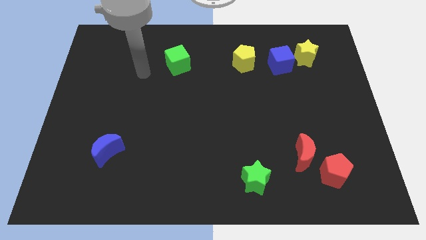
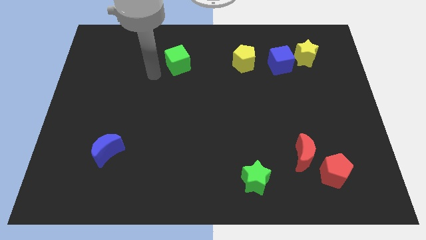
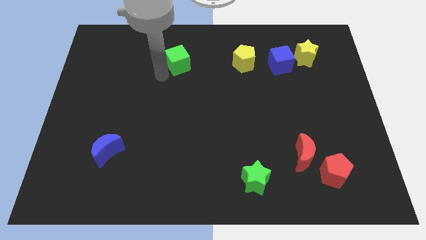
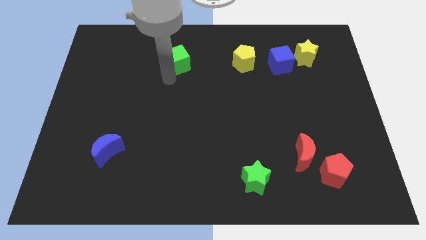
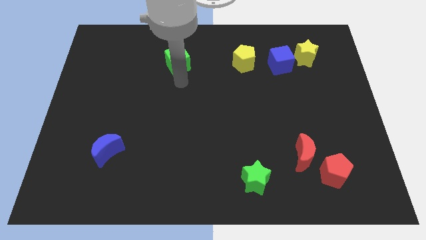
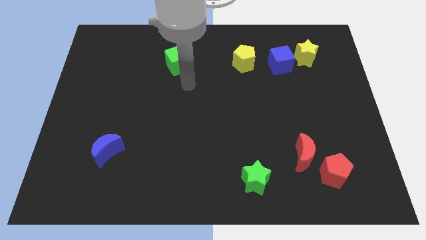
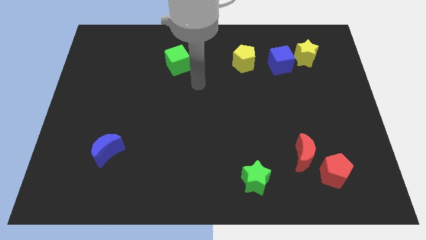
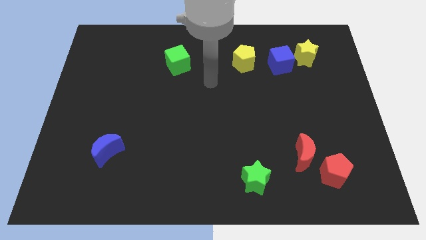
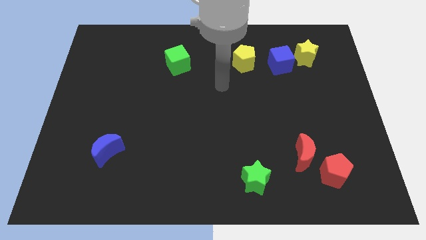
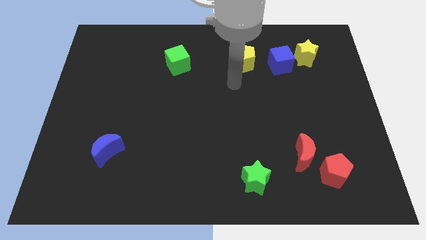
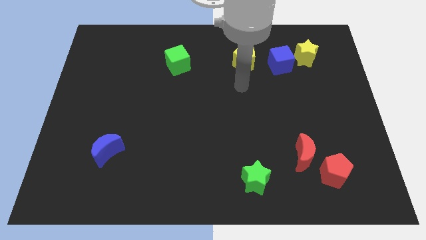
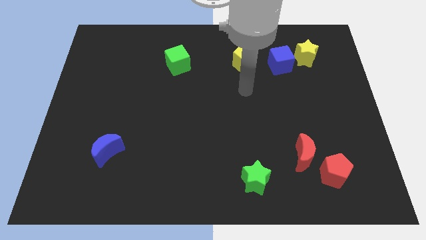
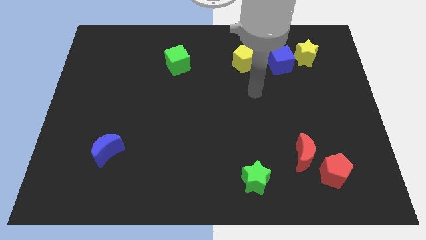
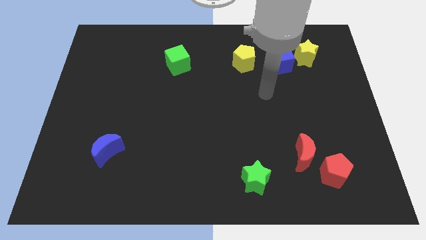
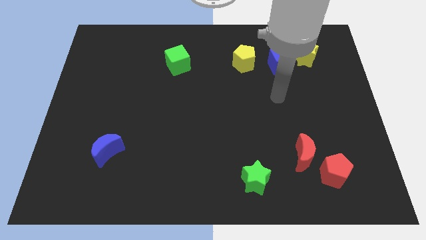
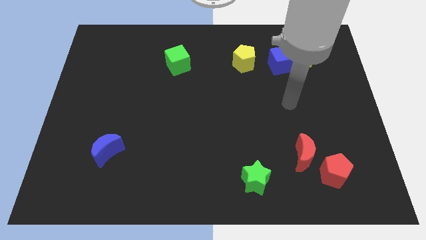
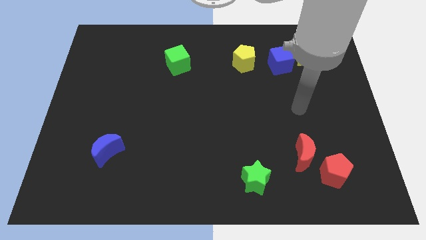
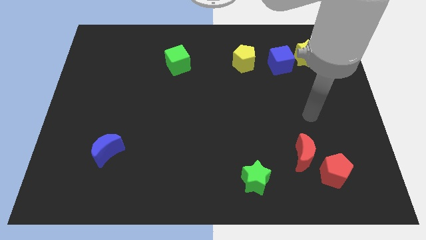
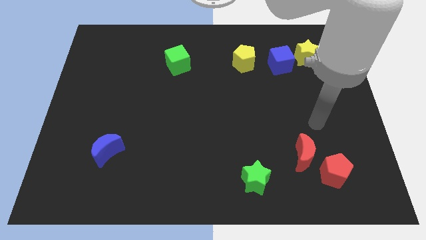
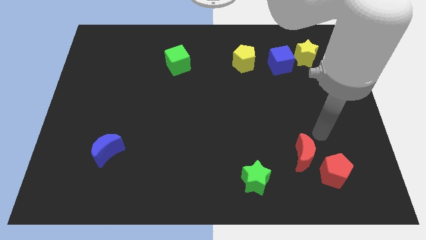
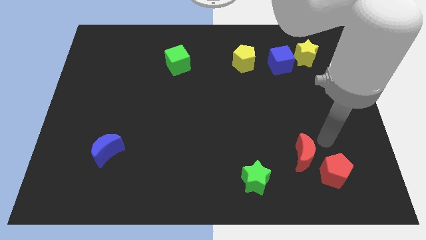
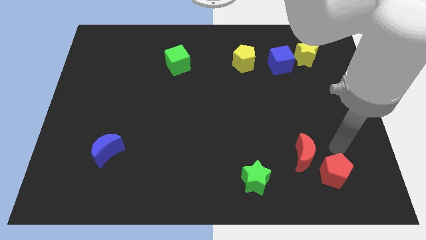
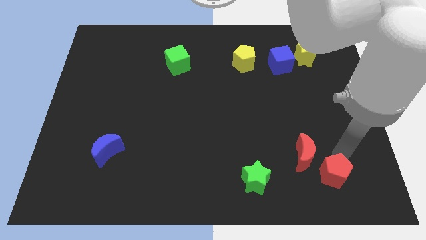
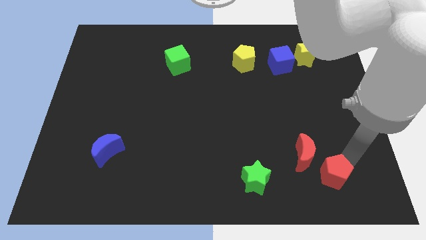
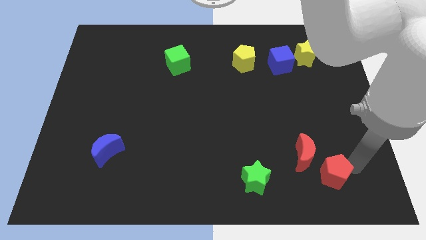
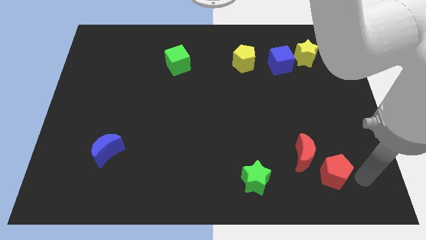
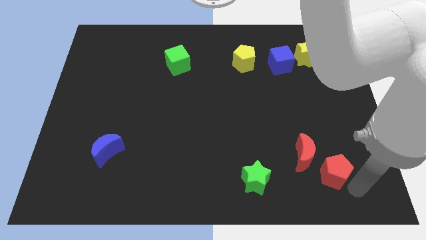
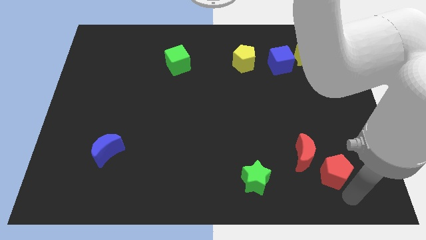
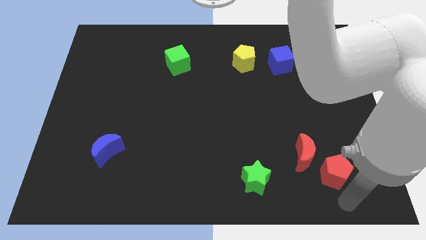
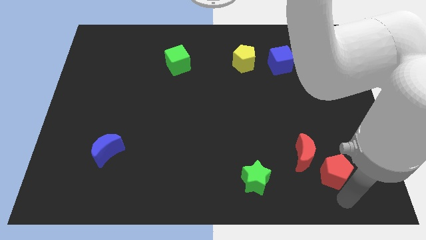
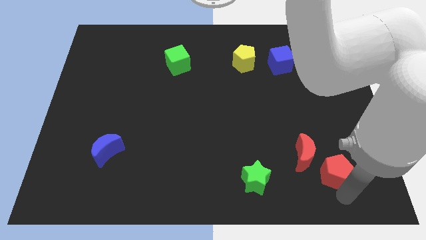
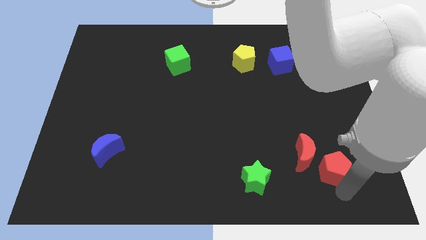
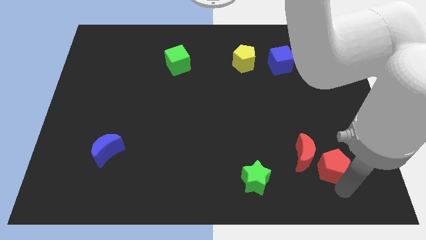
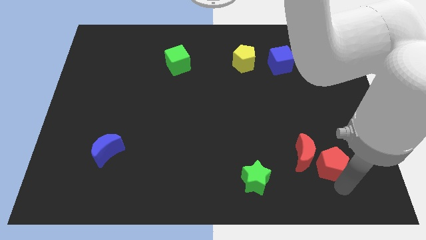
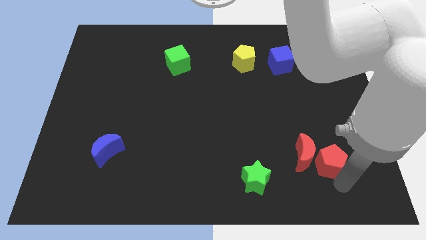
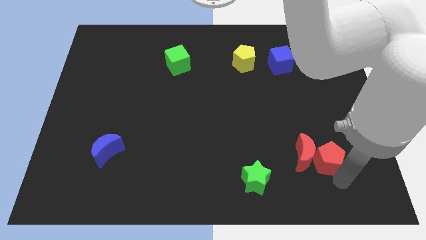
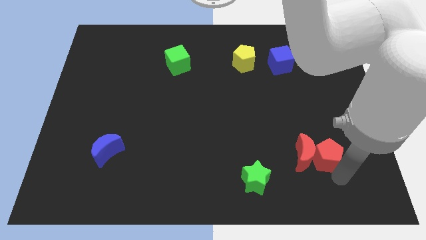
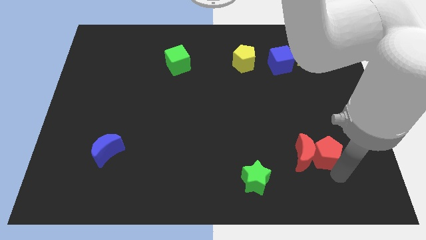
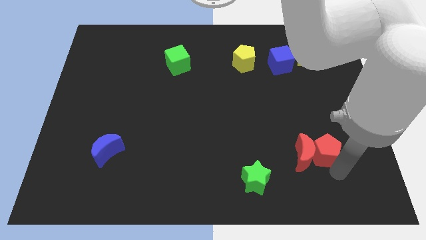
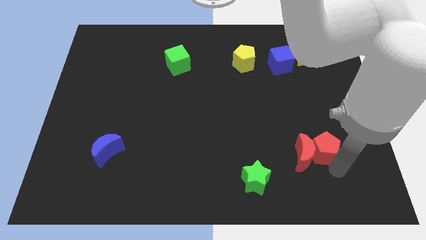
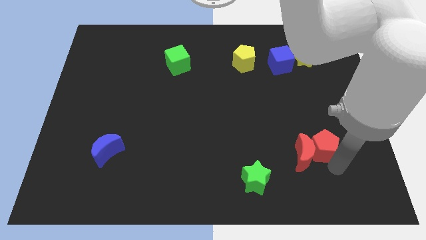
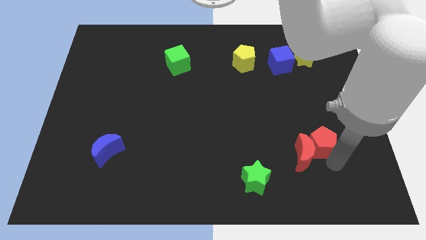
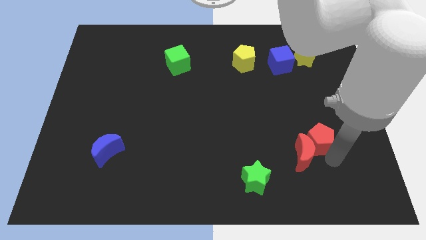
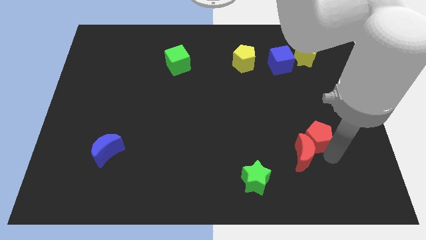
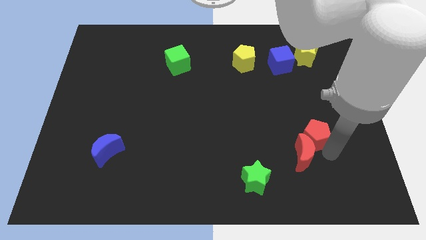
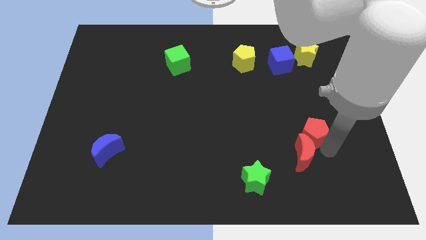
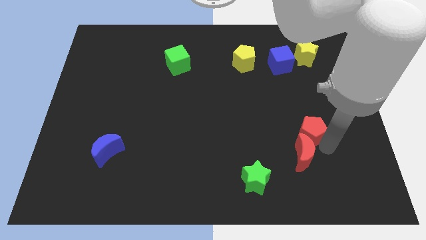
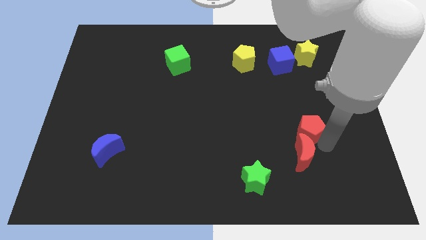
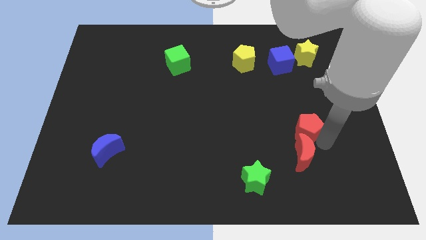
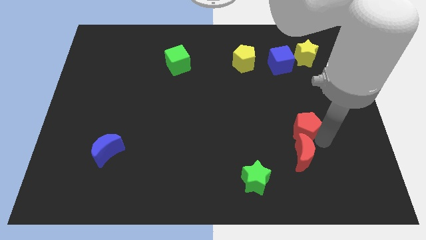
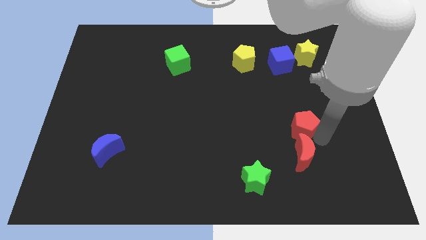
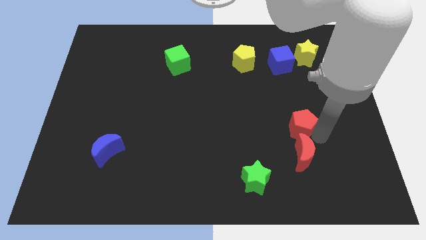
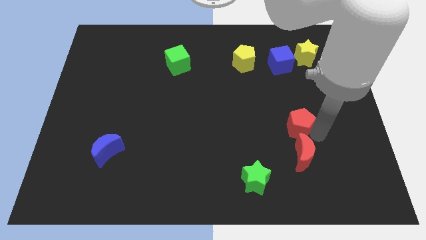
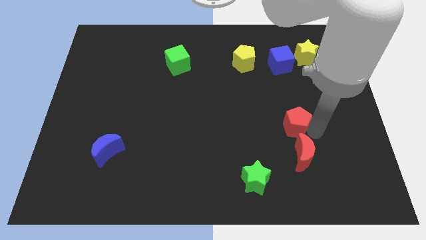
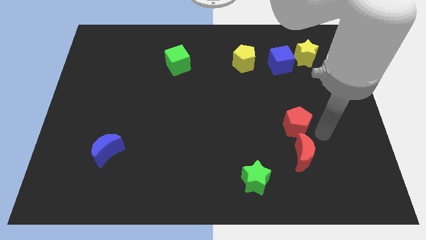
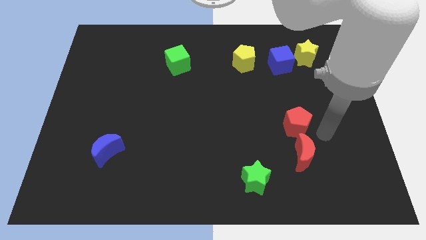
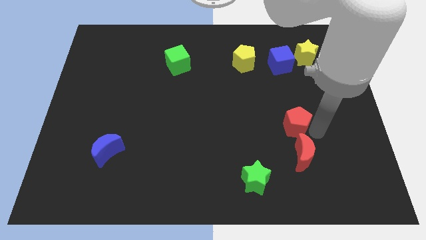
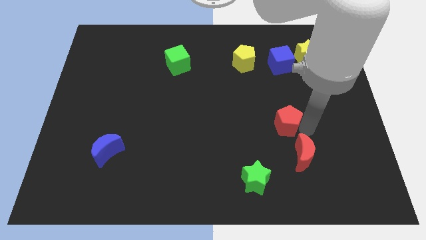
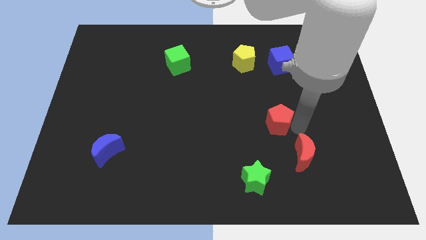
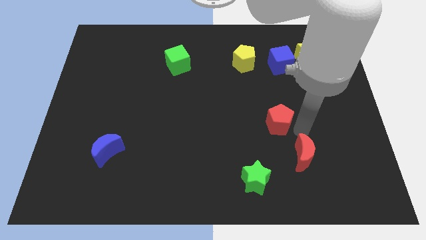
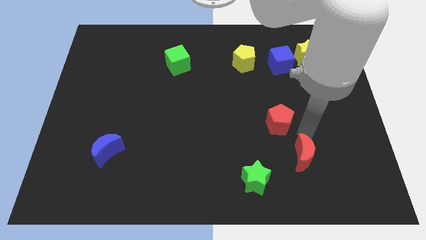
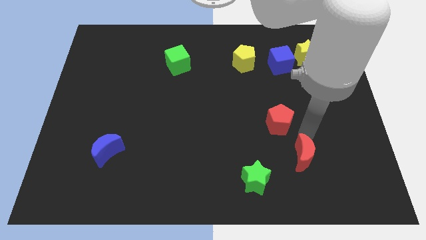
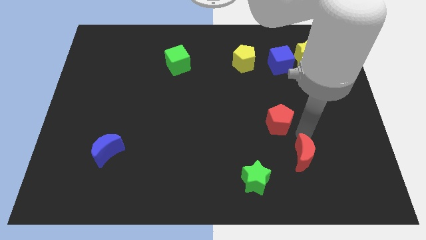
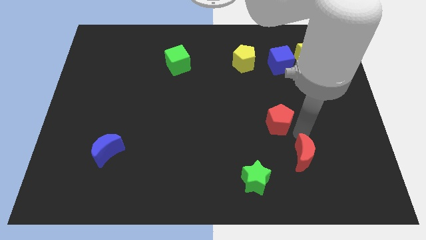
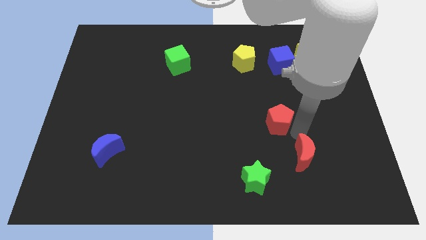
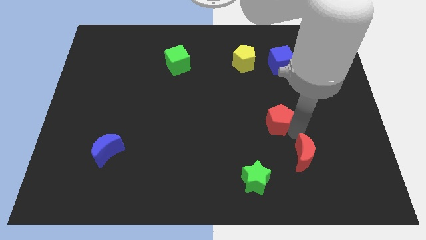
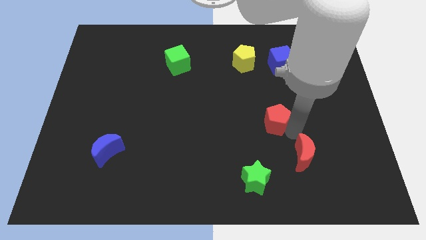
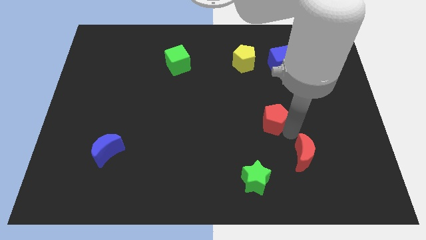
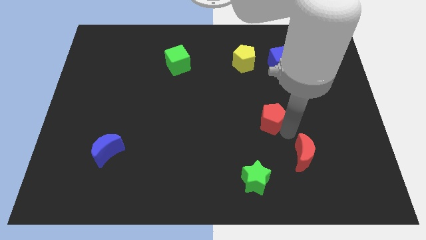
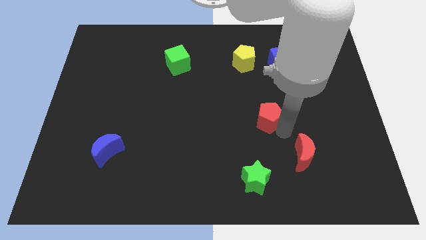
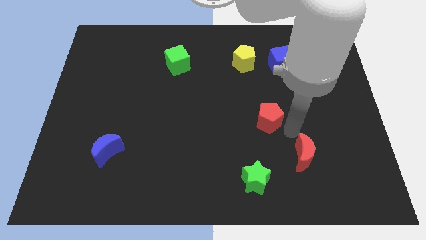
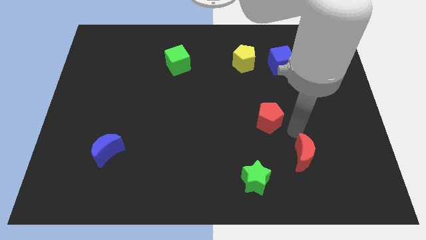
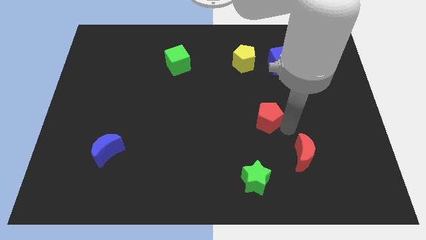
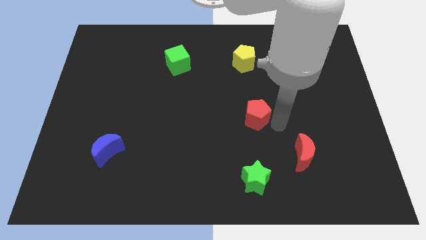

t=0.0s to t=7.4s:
move the red pentagon to the center of the board

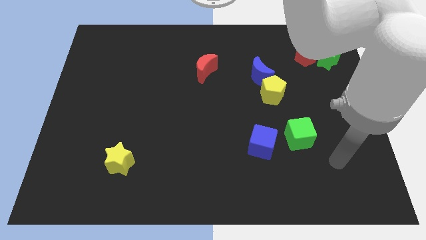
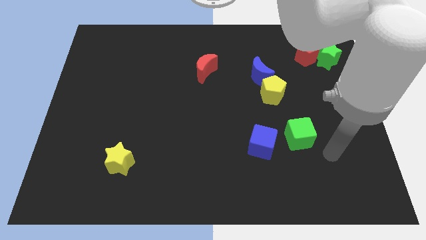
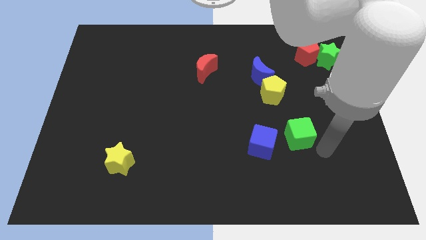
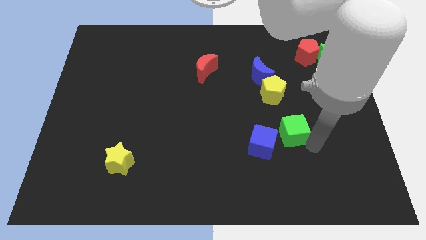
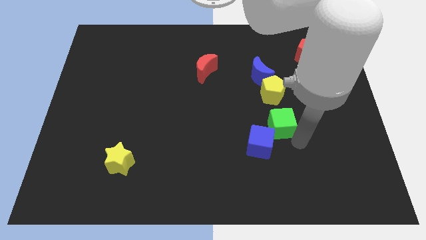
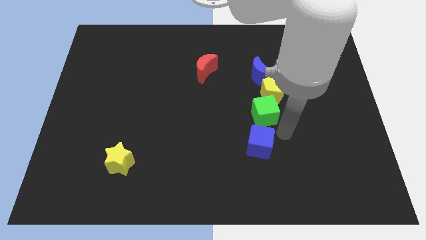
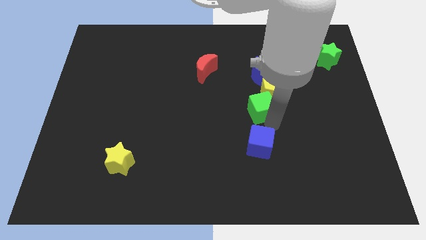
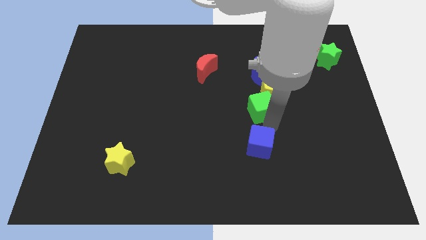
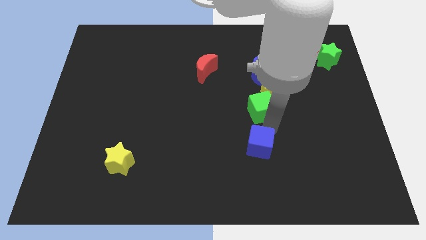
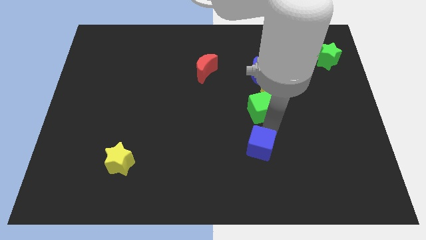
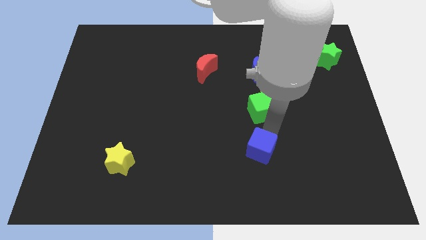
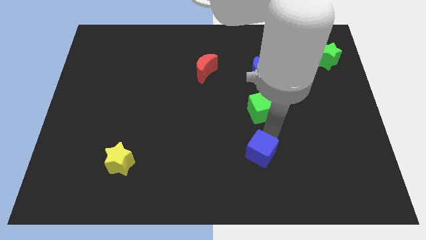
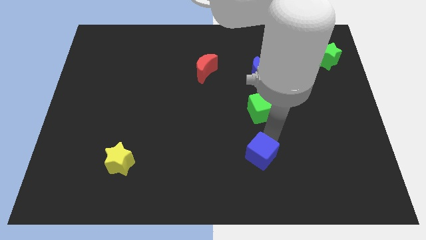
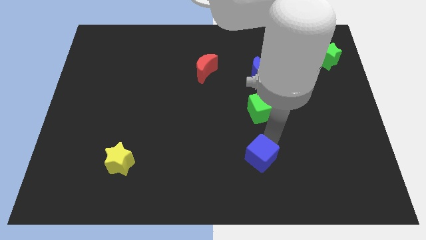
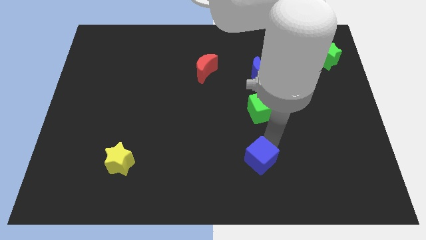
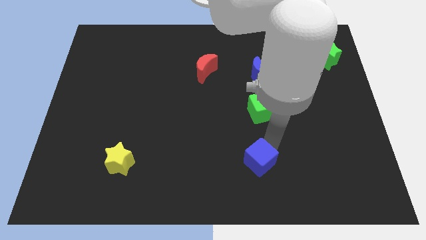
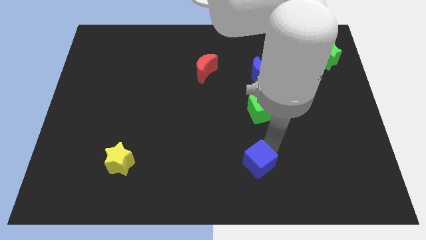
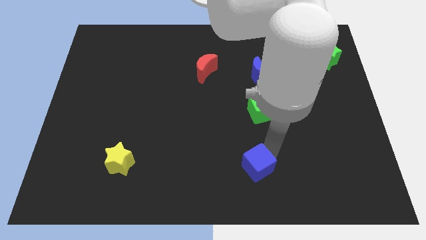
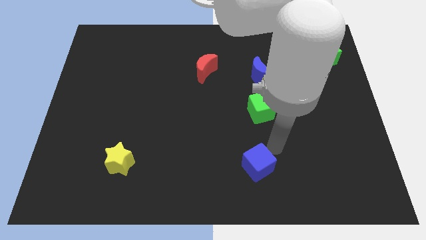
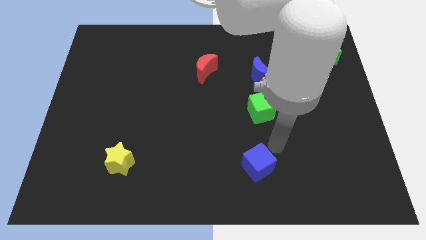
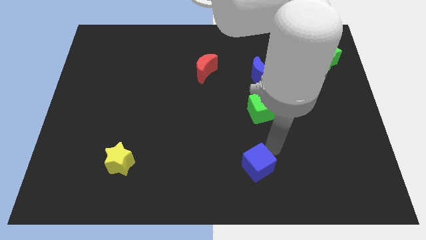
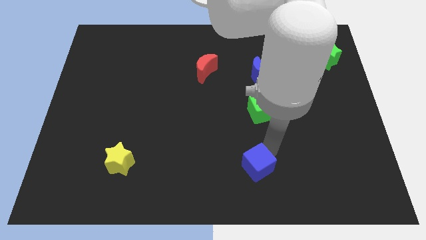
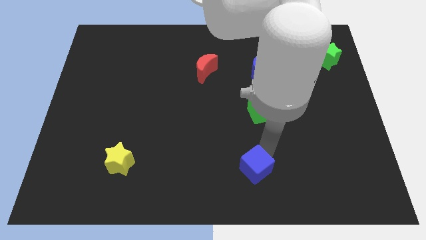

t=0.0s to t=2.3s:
move the blue cube to the bottom side
